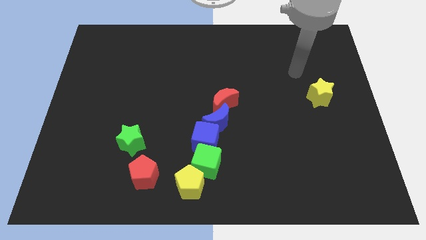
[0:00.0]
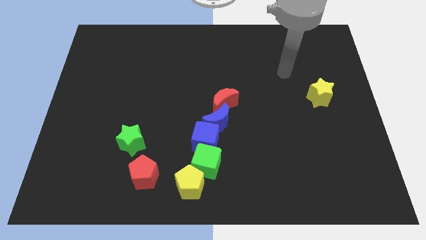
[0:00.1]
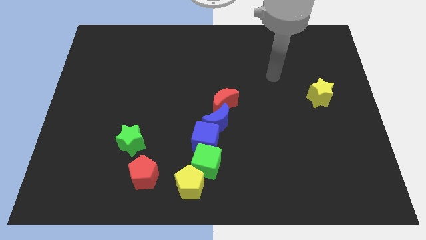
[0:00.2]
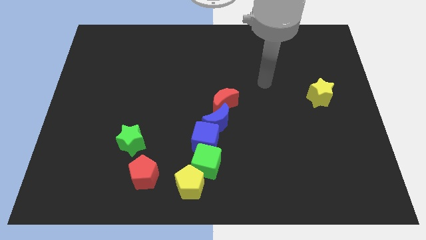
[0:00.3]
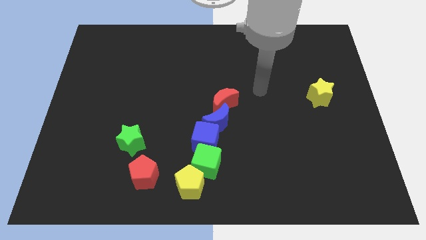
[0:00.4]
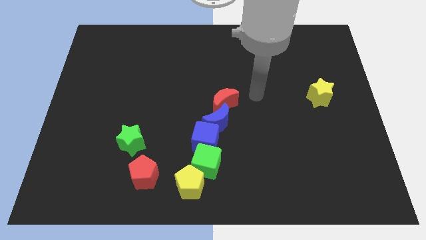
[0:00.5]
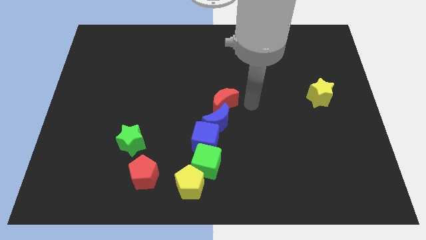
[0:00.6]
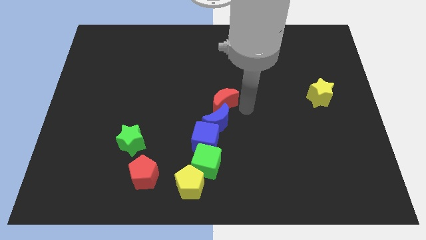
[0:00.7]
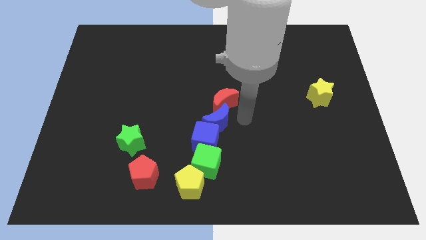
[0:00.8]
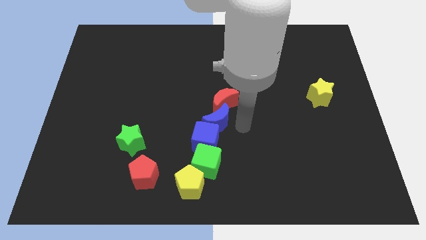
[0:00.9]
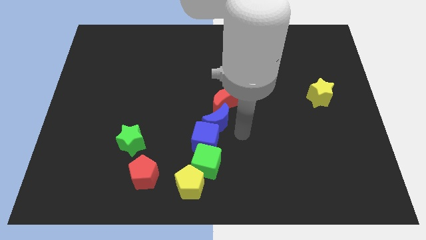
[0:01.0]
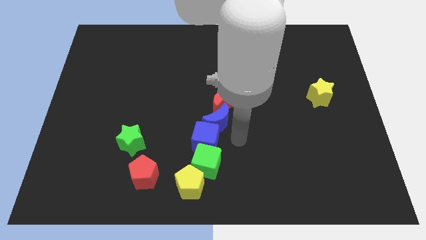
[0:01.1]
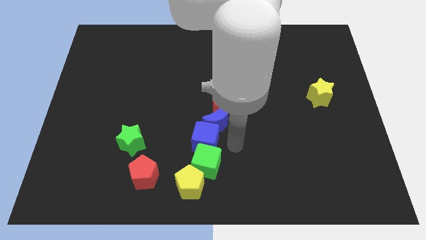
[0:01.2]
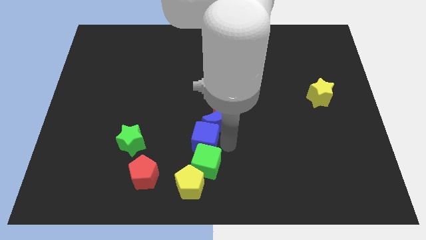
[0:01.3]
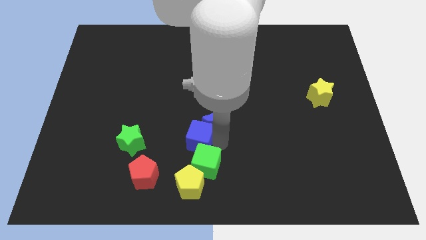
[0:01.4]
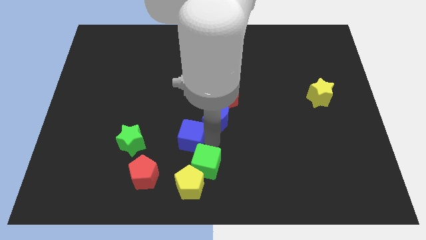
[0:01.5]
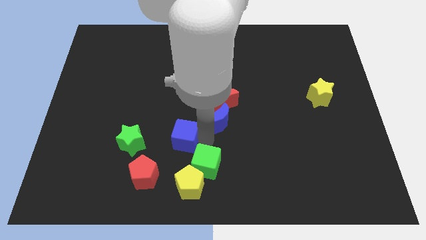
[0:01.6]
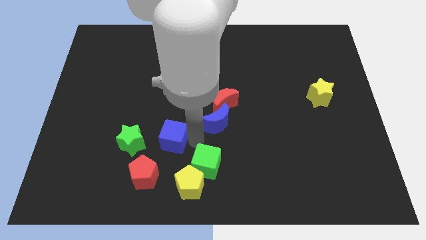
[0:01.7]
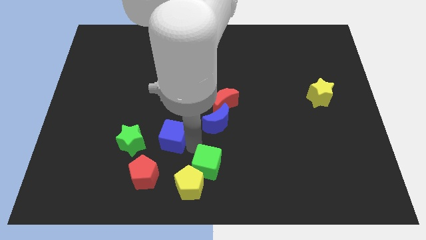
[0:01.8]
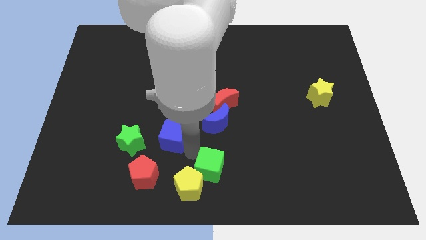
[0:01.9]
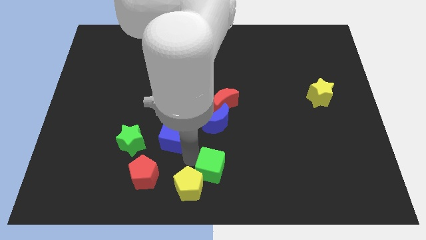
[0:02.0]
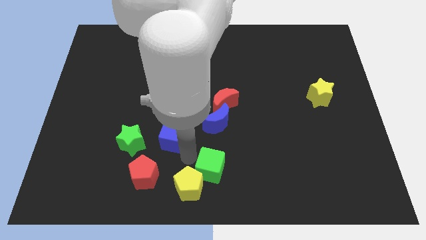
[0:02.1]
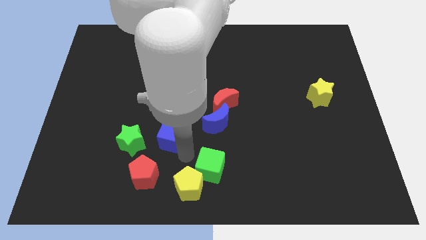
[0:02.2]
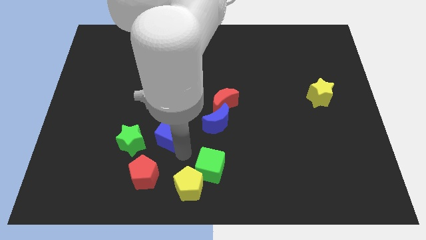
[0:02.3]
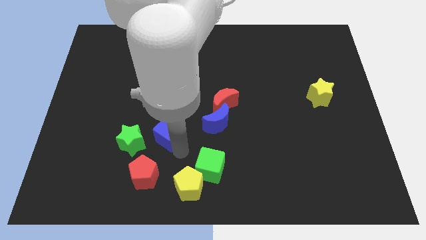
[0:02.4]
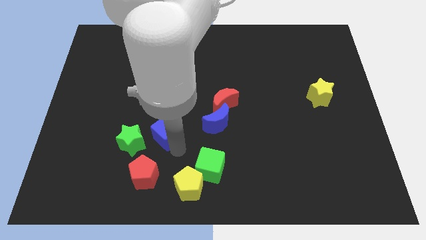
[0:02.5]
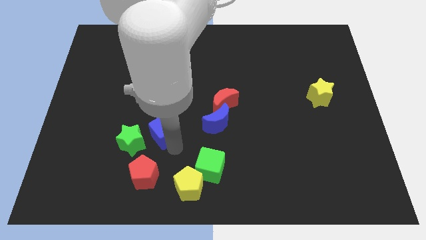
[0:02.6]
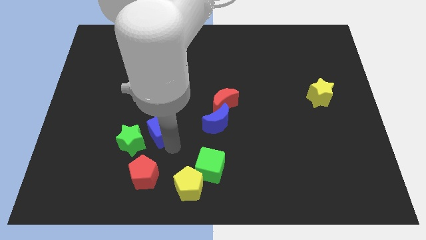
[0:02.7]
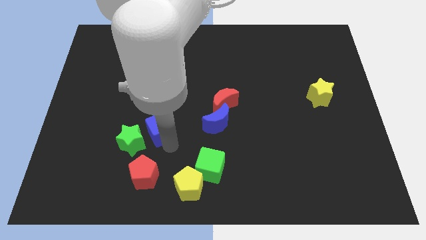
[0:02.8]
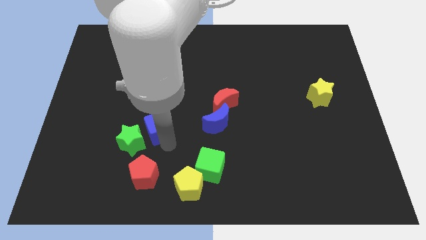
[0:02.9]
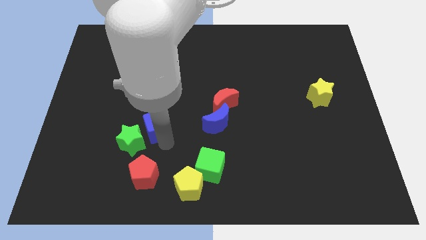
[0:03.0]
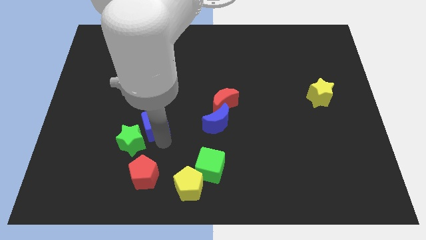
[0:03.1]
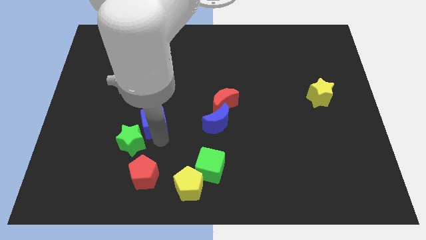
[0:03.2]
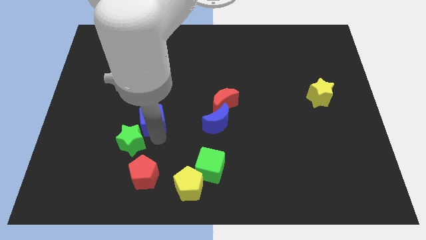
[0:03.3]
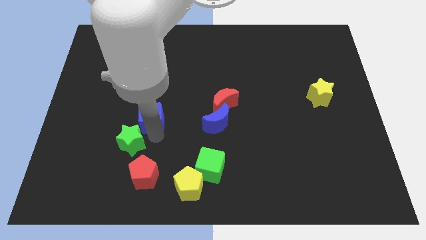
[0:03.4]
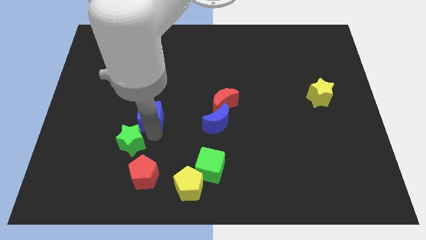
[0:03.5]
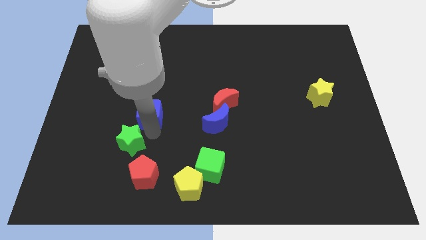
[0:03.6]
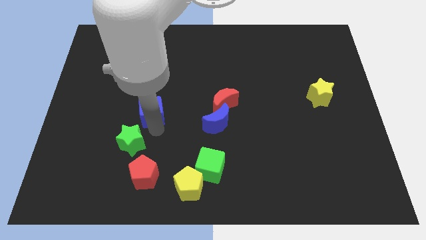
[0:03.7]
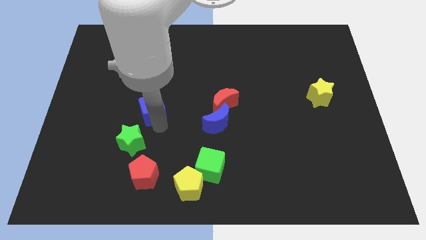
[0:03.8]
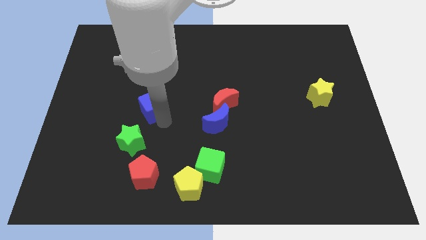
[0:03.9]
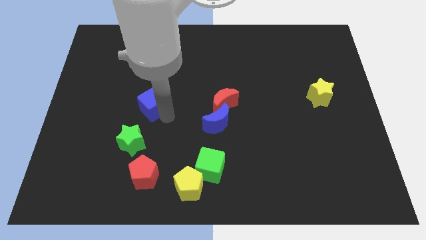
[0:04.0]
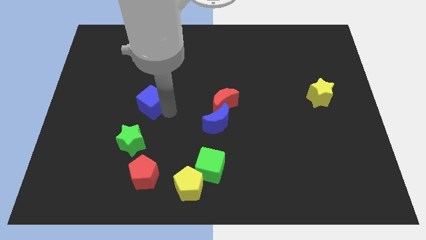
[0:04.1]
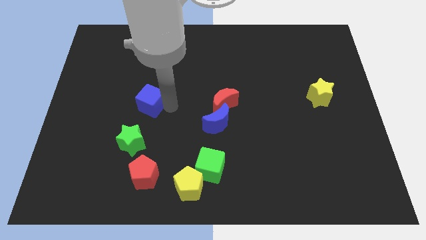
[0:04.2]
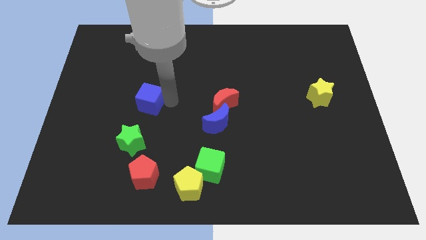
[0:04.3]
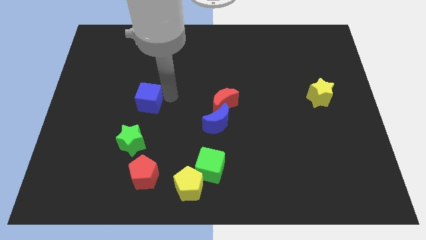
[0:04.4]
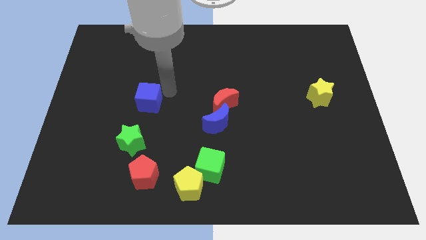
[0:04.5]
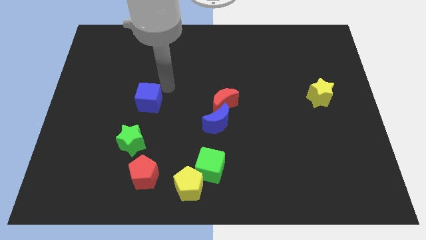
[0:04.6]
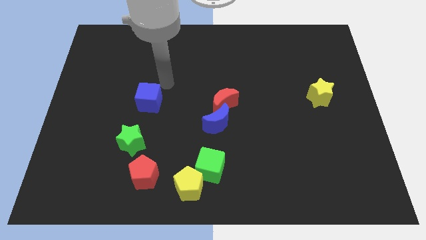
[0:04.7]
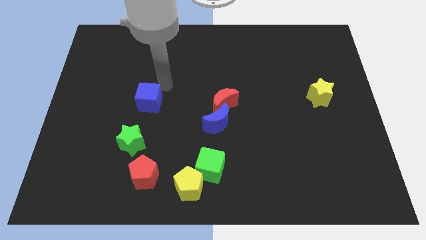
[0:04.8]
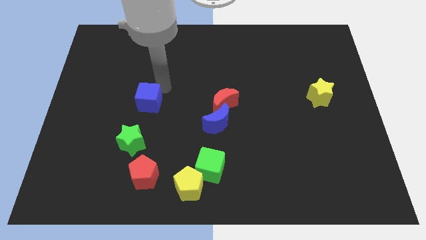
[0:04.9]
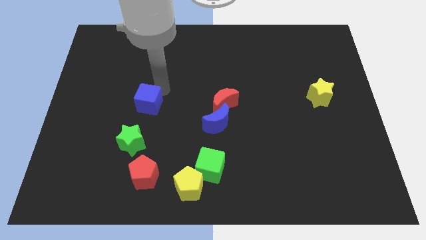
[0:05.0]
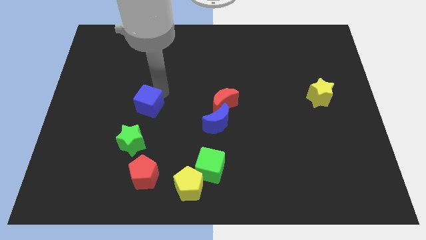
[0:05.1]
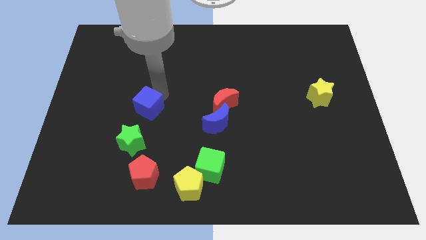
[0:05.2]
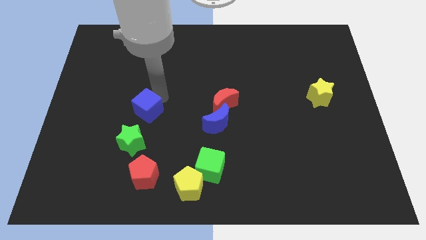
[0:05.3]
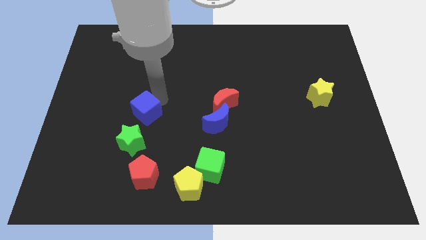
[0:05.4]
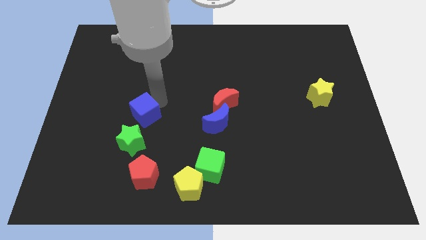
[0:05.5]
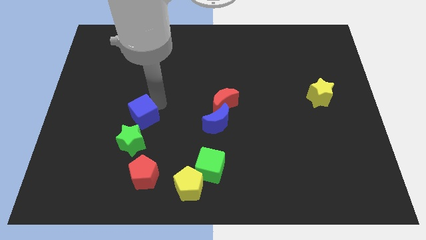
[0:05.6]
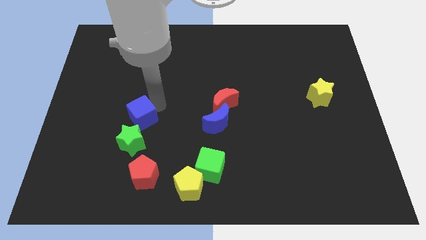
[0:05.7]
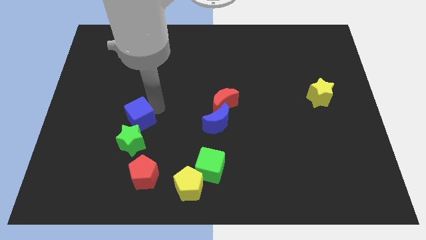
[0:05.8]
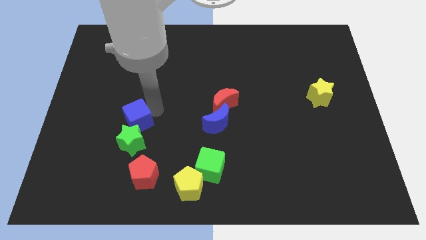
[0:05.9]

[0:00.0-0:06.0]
move the blue cube to the top left of the green star
